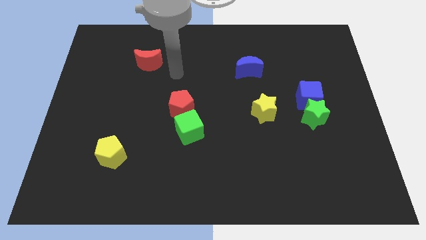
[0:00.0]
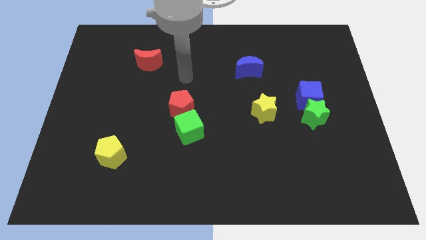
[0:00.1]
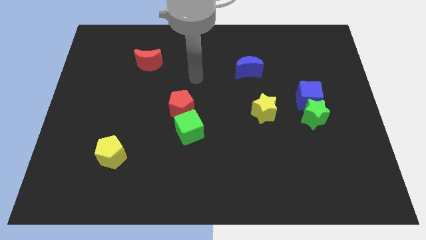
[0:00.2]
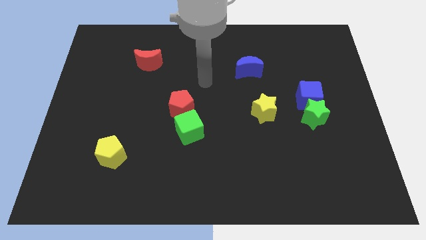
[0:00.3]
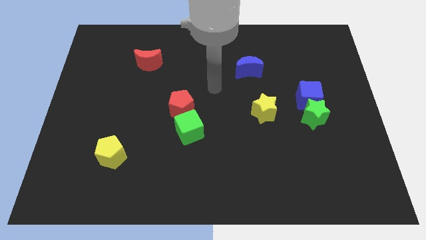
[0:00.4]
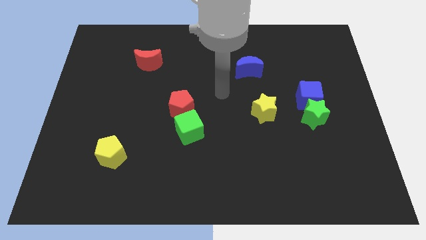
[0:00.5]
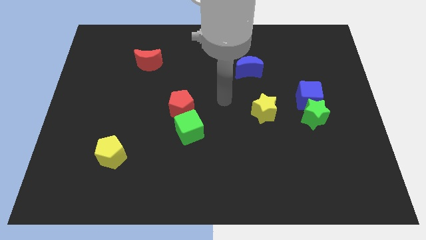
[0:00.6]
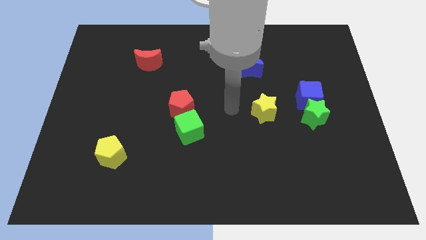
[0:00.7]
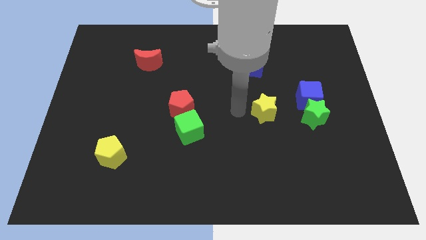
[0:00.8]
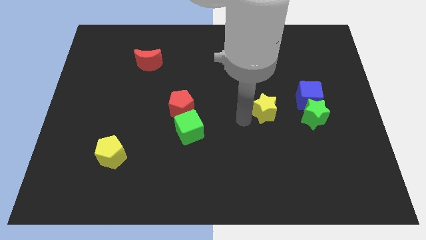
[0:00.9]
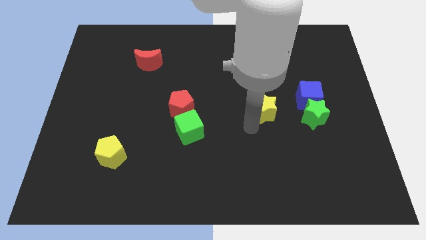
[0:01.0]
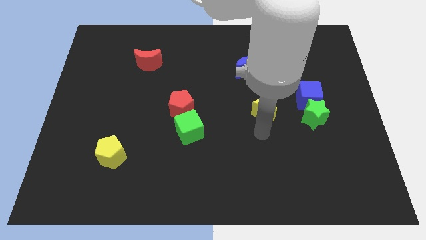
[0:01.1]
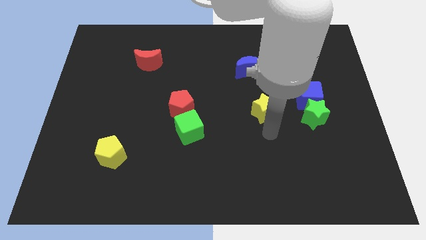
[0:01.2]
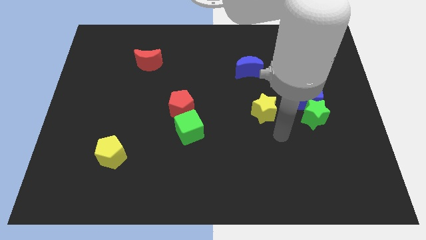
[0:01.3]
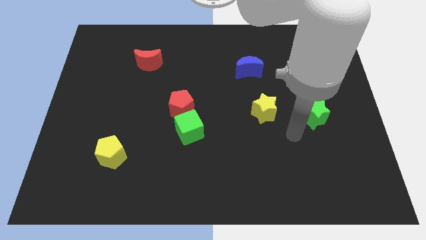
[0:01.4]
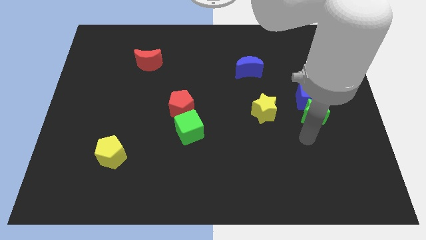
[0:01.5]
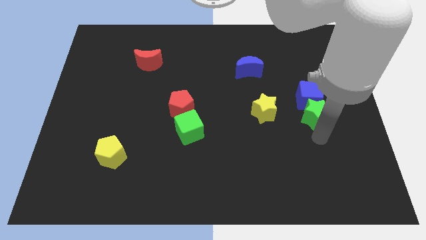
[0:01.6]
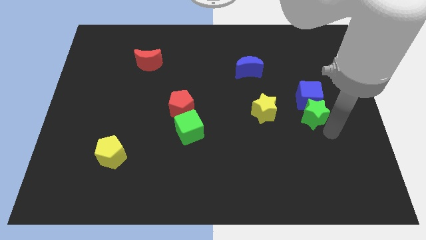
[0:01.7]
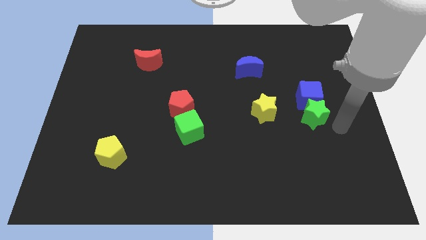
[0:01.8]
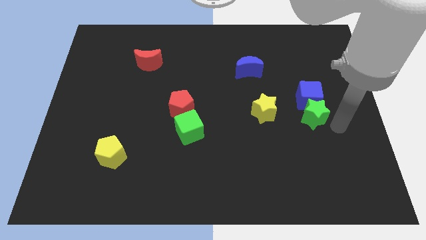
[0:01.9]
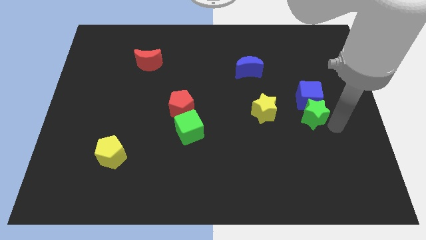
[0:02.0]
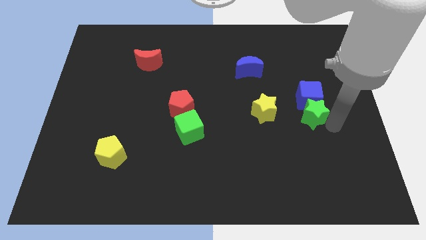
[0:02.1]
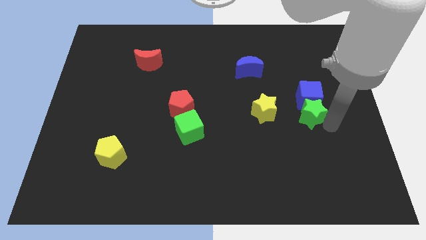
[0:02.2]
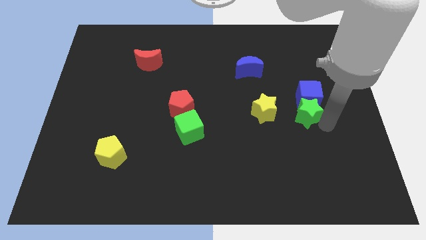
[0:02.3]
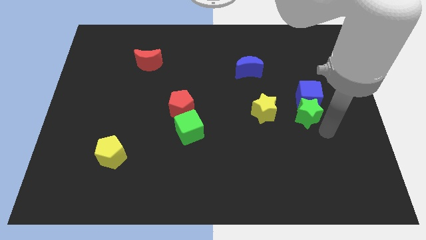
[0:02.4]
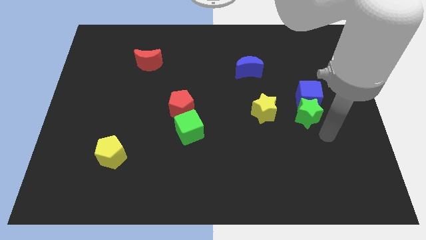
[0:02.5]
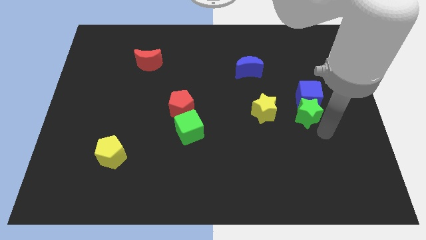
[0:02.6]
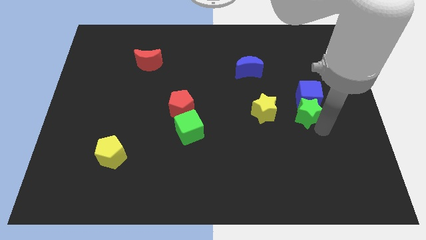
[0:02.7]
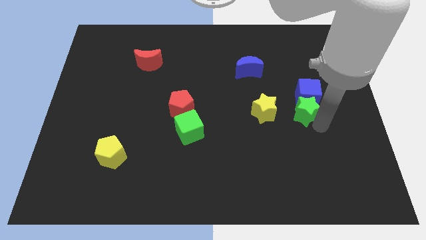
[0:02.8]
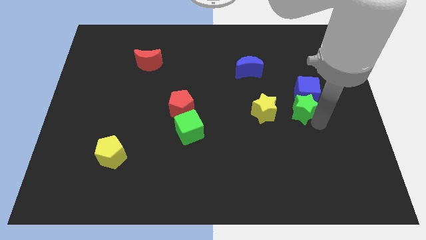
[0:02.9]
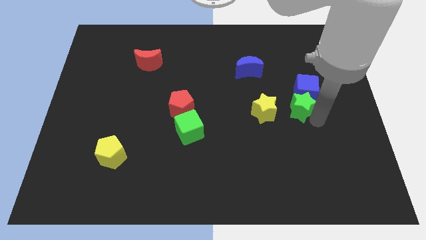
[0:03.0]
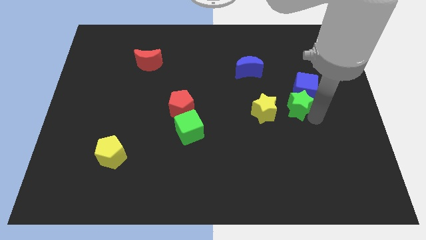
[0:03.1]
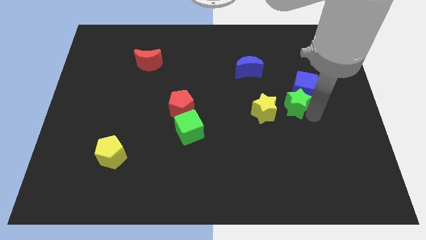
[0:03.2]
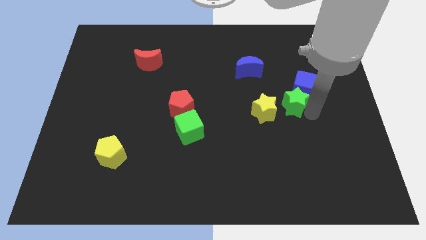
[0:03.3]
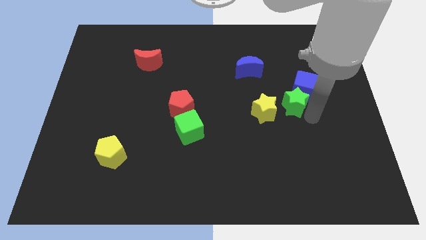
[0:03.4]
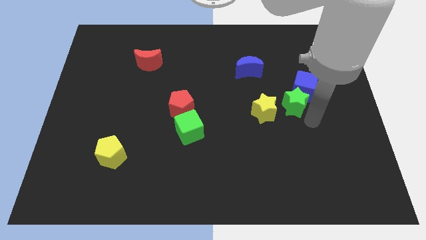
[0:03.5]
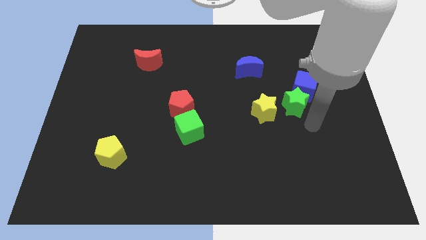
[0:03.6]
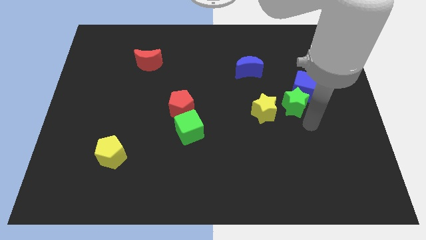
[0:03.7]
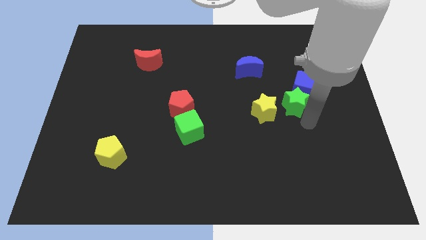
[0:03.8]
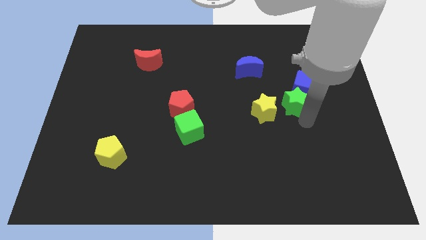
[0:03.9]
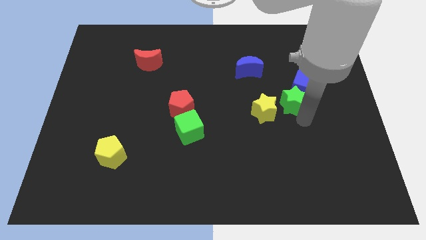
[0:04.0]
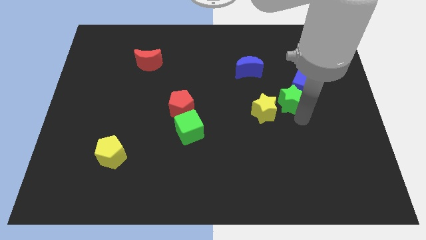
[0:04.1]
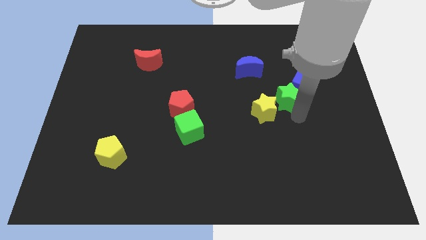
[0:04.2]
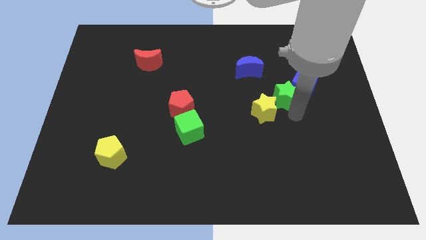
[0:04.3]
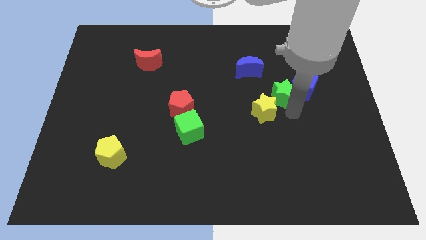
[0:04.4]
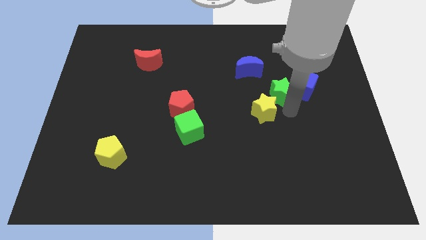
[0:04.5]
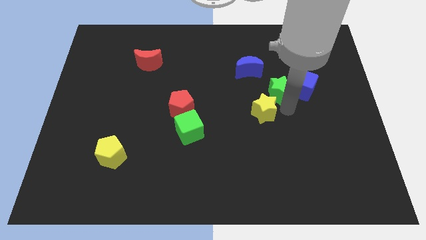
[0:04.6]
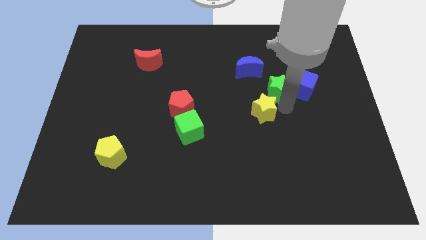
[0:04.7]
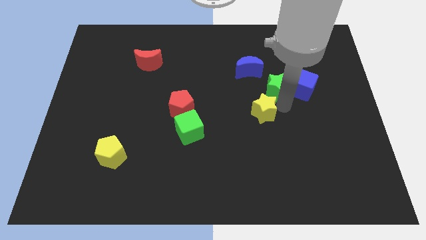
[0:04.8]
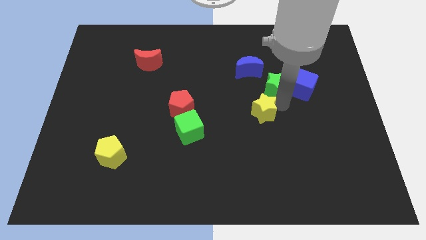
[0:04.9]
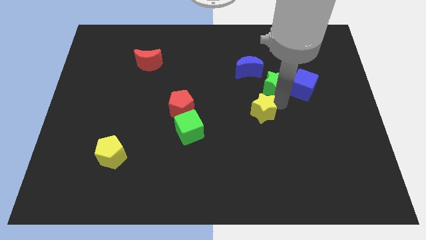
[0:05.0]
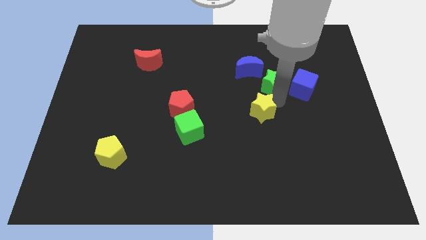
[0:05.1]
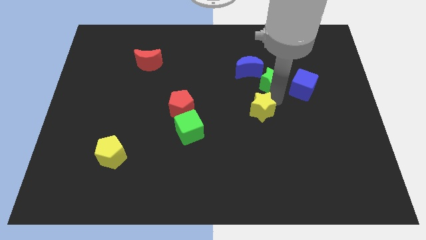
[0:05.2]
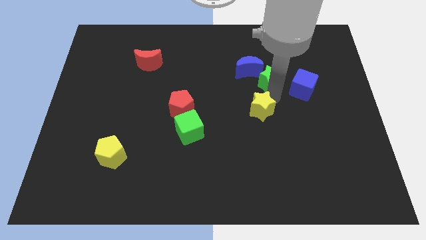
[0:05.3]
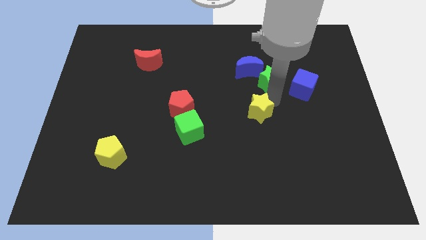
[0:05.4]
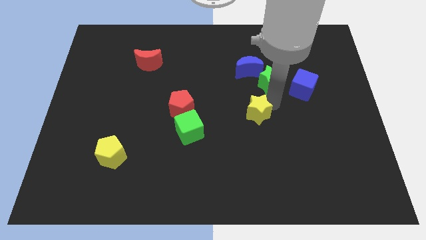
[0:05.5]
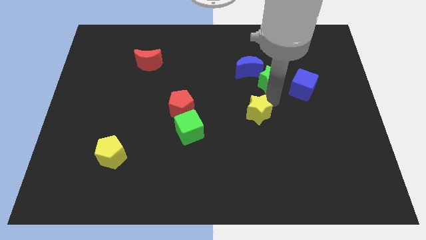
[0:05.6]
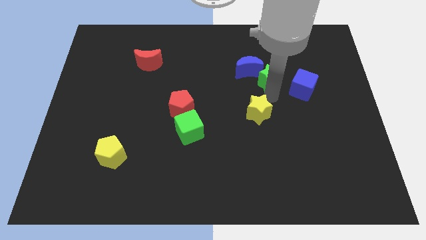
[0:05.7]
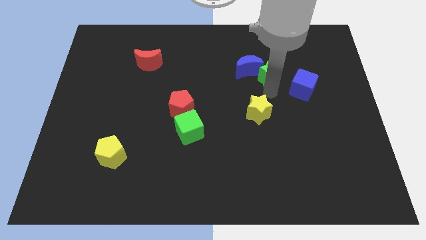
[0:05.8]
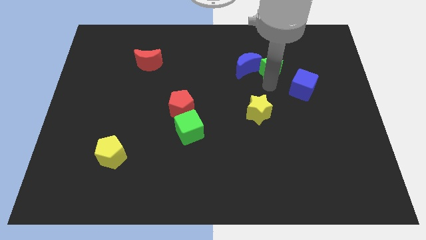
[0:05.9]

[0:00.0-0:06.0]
put the green star to the top right side of the blue moon

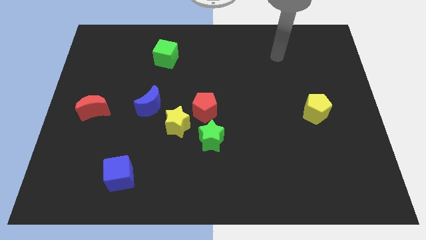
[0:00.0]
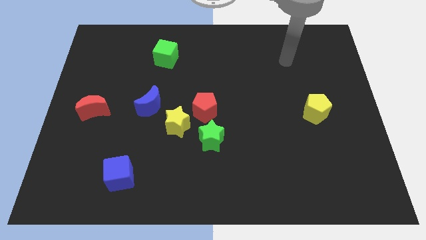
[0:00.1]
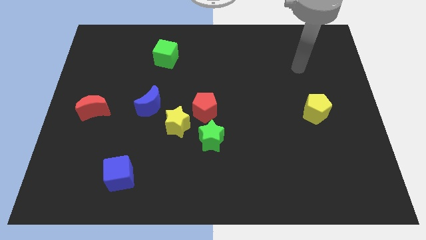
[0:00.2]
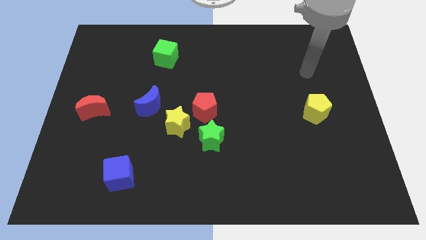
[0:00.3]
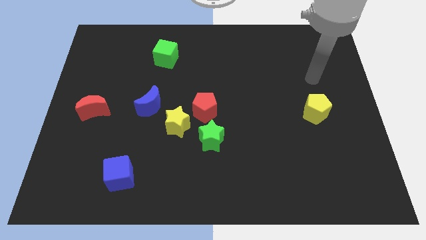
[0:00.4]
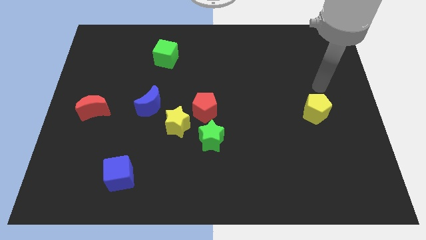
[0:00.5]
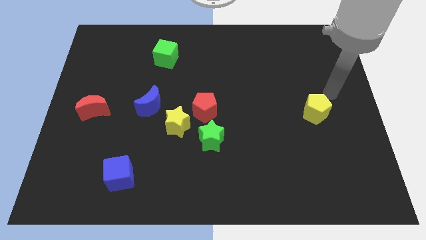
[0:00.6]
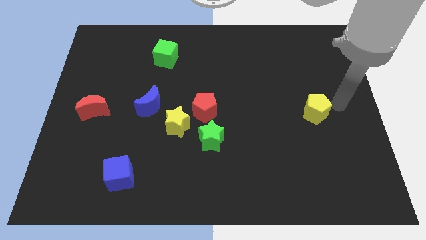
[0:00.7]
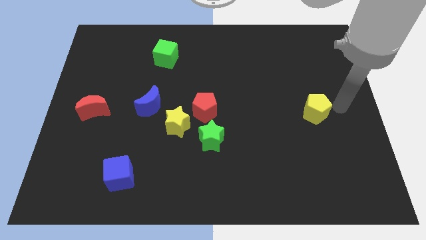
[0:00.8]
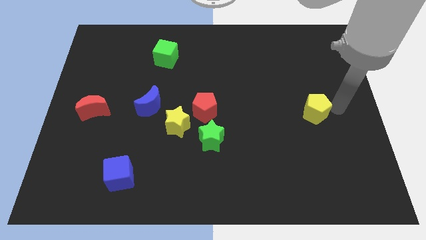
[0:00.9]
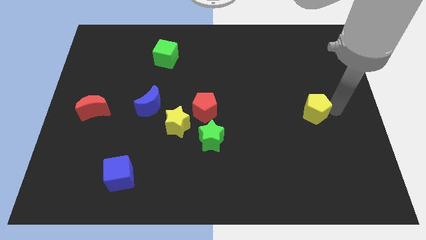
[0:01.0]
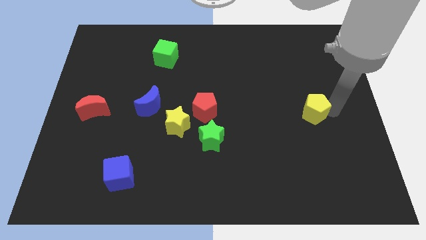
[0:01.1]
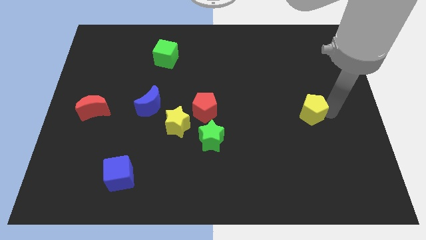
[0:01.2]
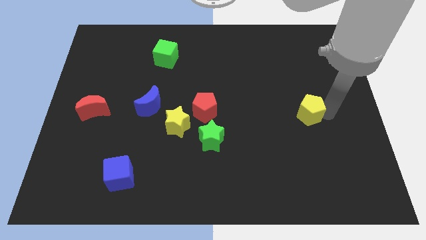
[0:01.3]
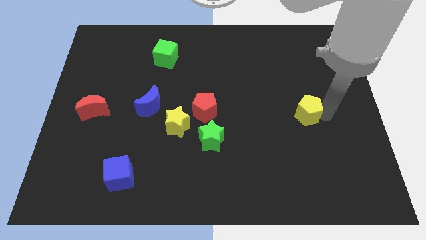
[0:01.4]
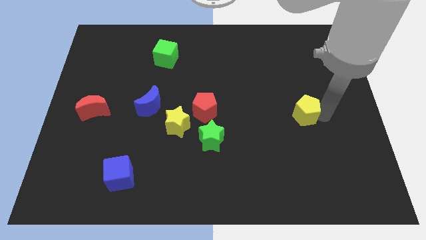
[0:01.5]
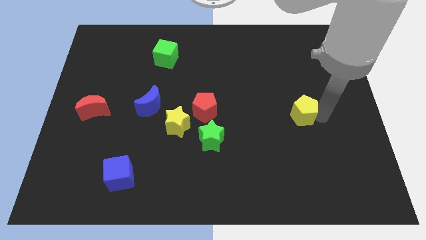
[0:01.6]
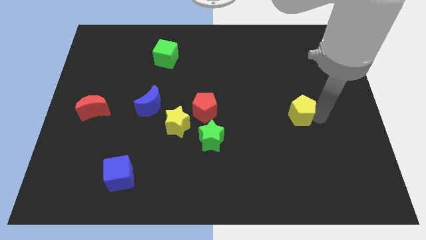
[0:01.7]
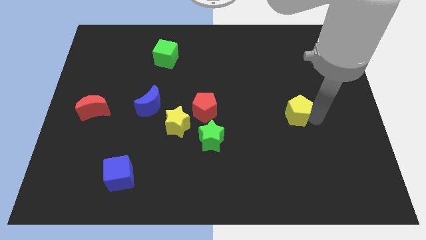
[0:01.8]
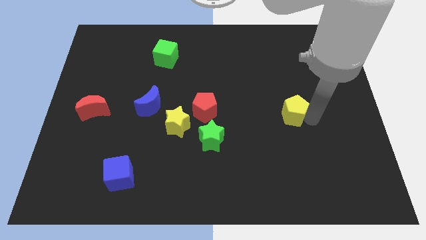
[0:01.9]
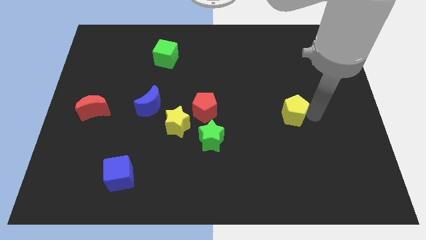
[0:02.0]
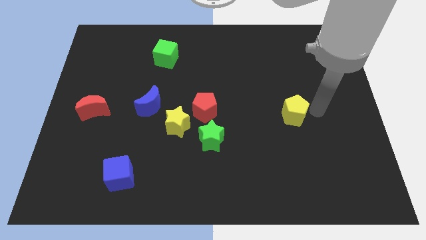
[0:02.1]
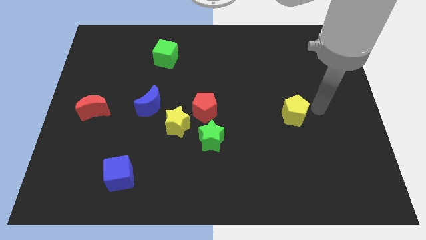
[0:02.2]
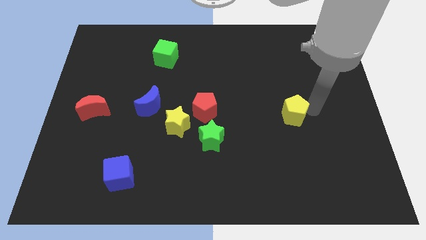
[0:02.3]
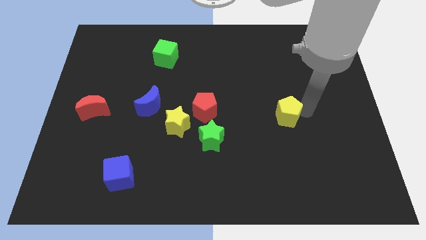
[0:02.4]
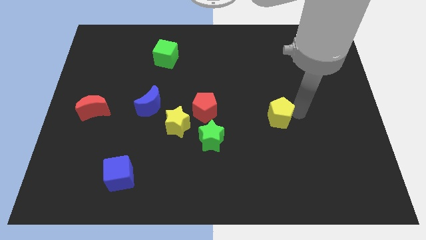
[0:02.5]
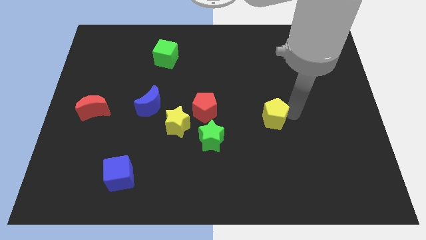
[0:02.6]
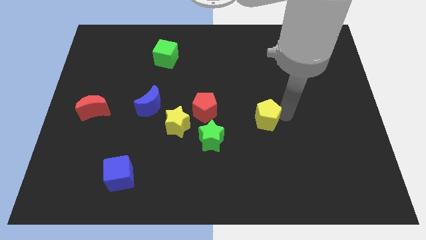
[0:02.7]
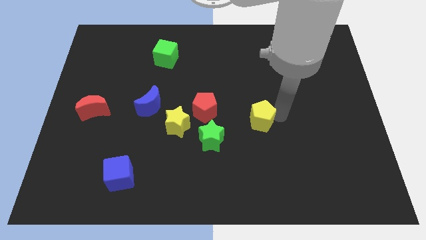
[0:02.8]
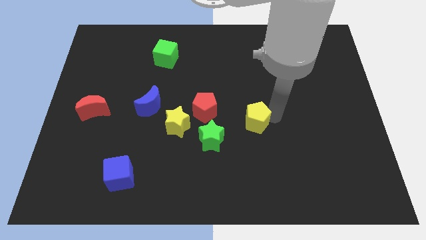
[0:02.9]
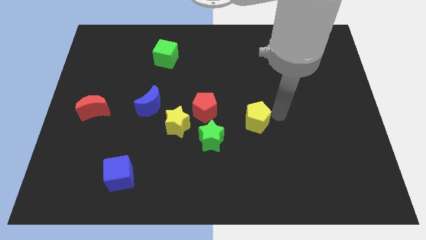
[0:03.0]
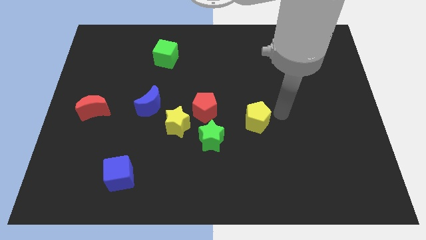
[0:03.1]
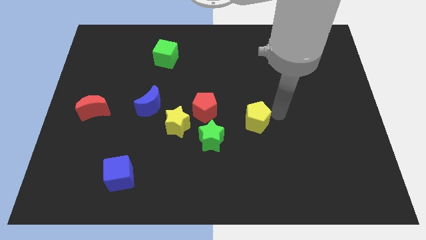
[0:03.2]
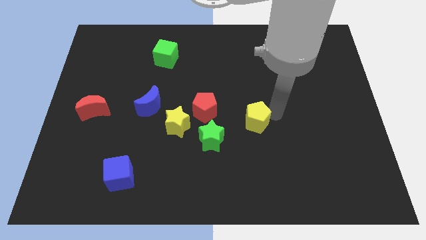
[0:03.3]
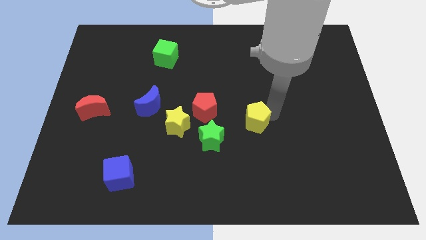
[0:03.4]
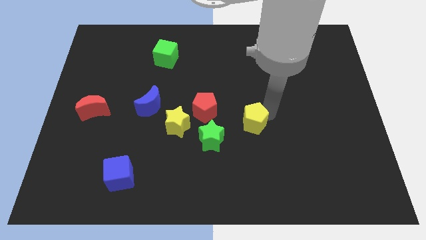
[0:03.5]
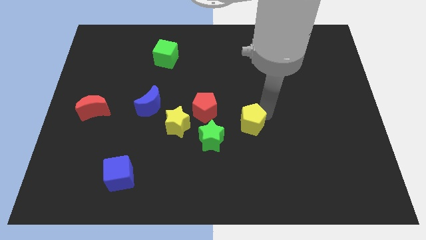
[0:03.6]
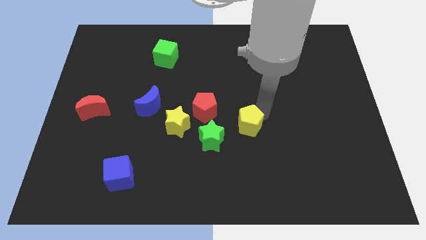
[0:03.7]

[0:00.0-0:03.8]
put the yellow pentagon to the bottom right side of the red pentagon
